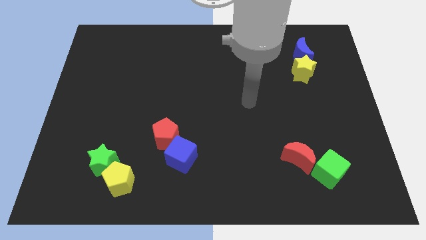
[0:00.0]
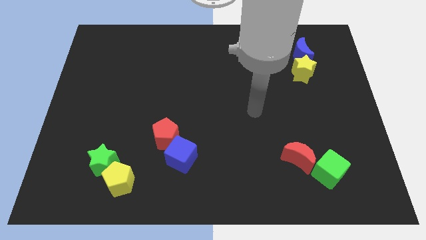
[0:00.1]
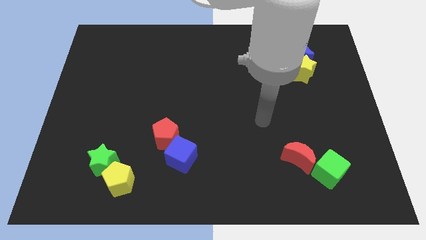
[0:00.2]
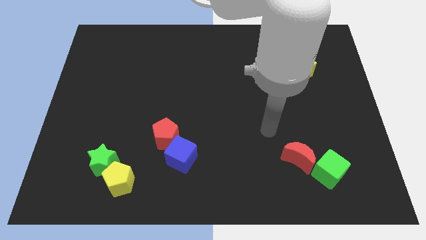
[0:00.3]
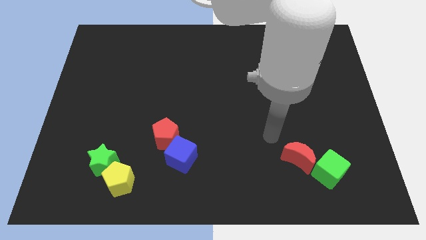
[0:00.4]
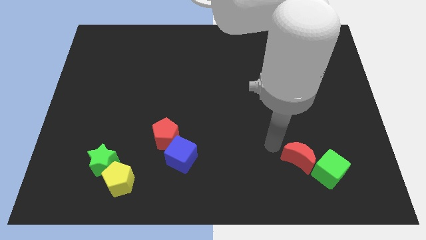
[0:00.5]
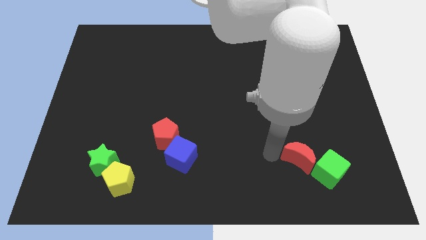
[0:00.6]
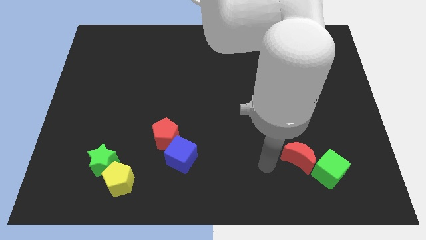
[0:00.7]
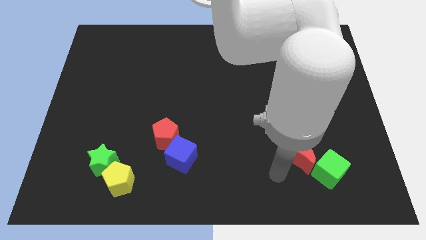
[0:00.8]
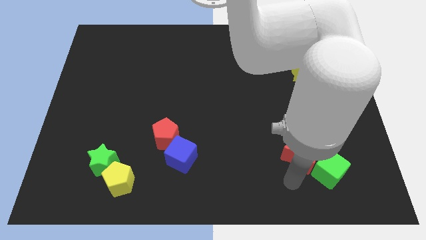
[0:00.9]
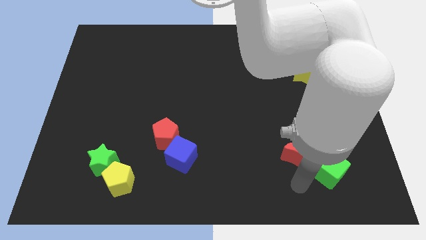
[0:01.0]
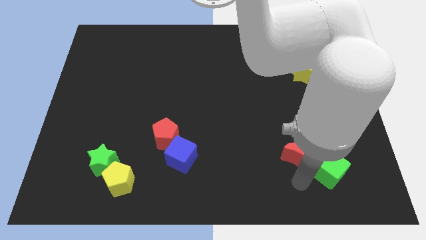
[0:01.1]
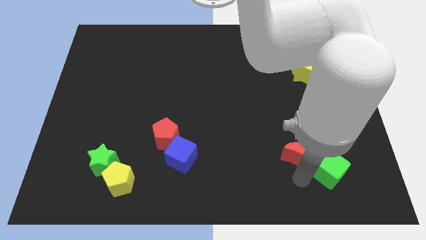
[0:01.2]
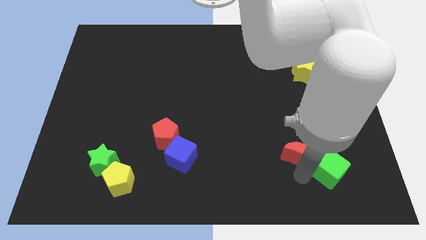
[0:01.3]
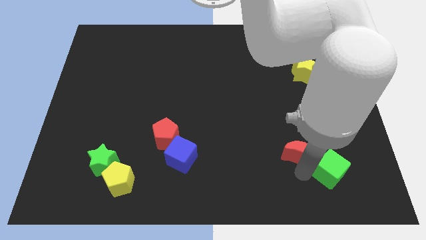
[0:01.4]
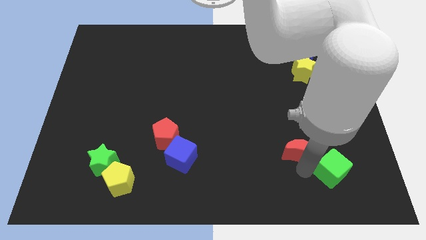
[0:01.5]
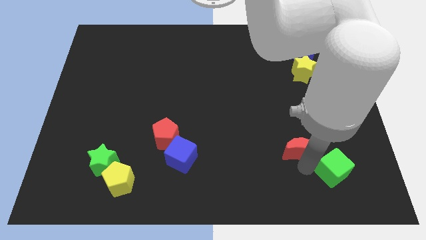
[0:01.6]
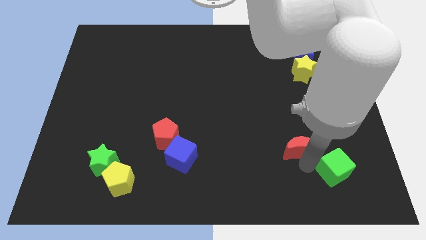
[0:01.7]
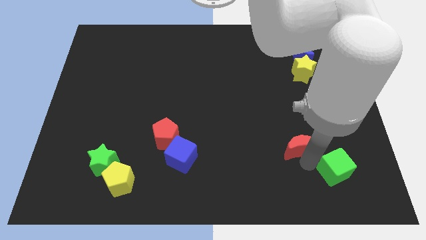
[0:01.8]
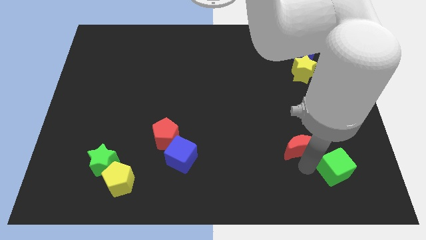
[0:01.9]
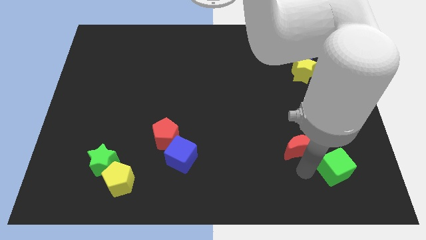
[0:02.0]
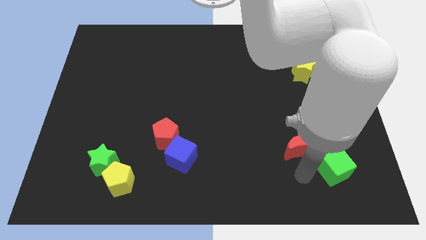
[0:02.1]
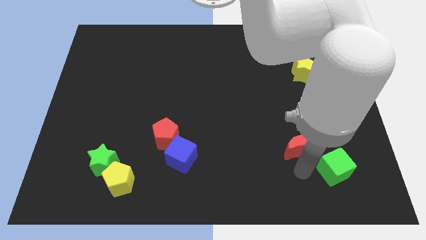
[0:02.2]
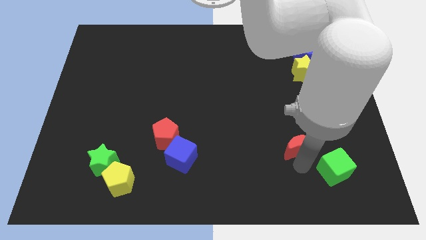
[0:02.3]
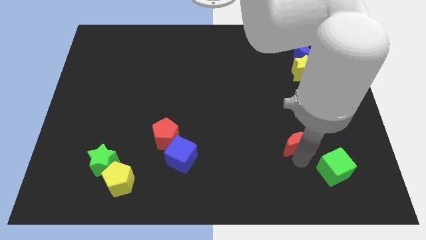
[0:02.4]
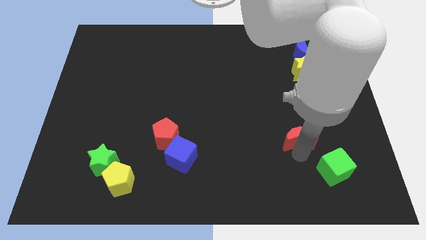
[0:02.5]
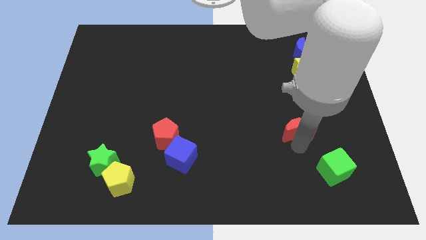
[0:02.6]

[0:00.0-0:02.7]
slightly push the red moon up

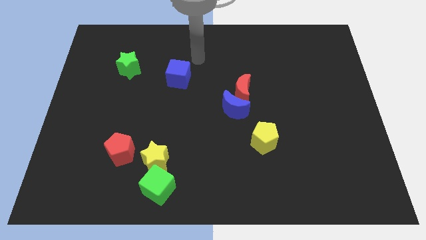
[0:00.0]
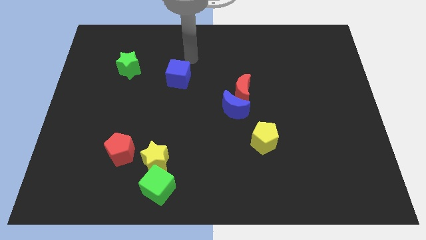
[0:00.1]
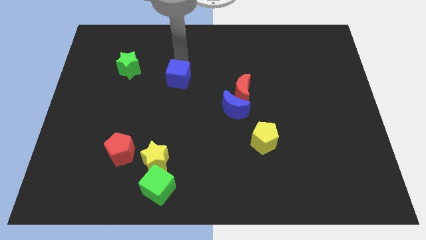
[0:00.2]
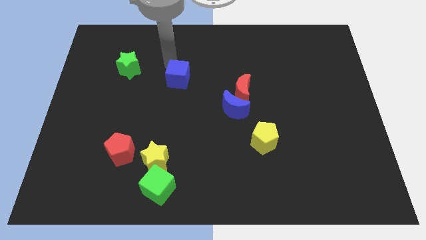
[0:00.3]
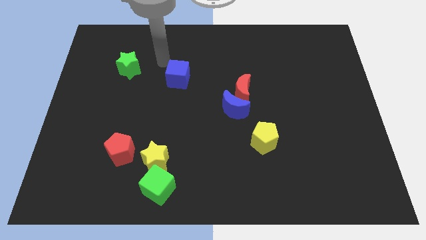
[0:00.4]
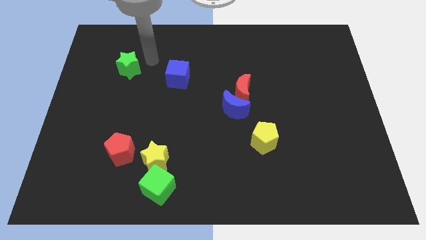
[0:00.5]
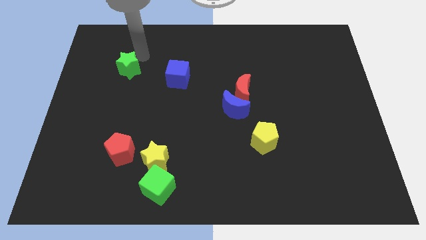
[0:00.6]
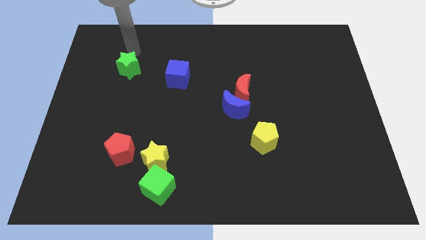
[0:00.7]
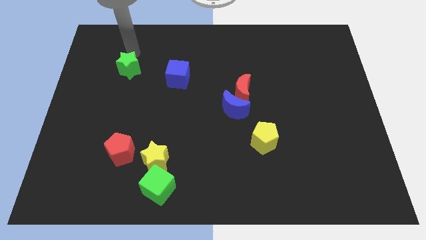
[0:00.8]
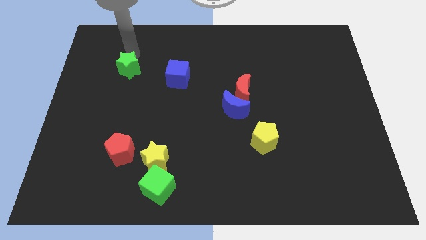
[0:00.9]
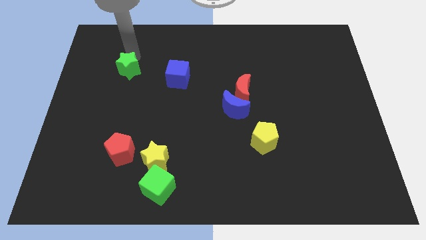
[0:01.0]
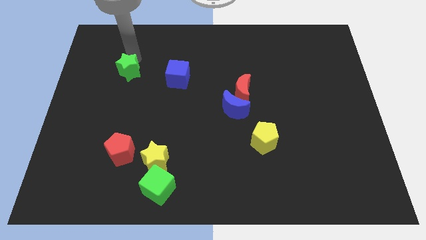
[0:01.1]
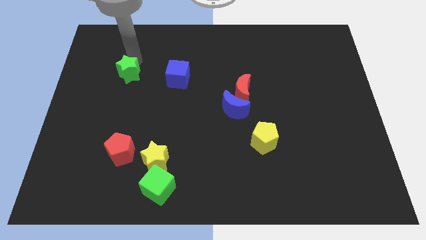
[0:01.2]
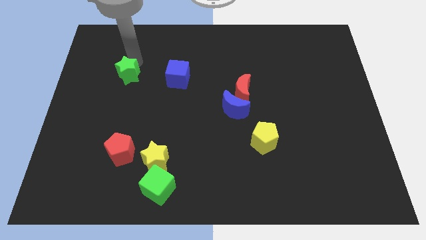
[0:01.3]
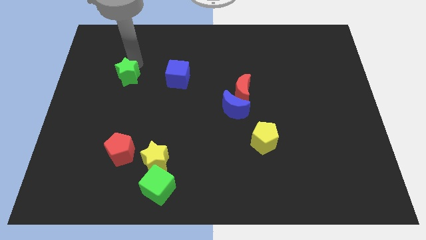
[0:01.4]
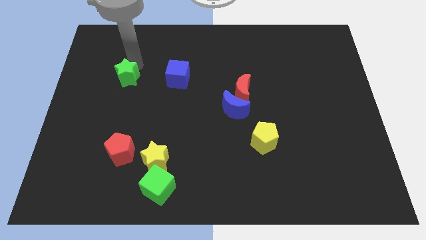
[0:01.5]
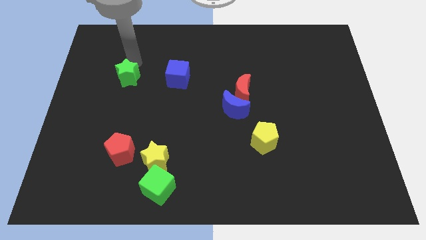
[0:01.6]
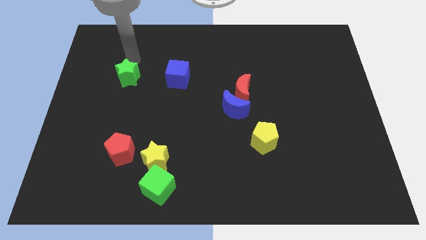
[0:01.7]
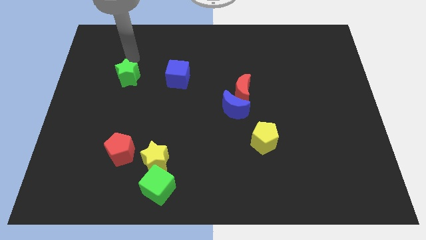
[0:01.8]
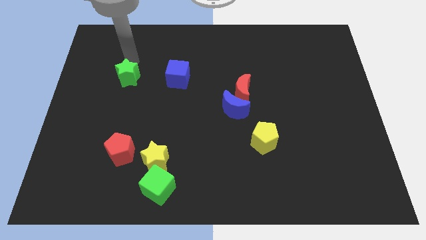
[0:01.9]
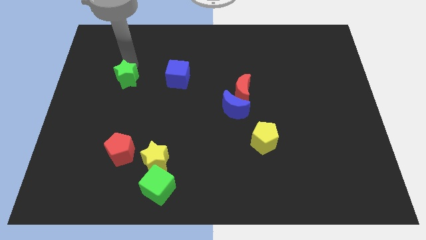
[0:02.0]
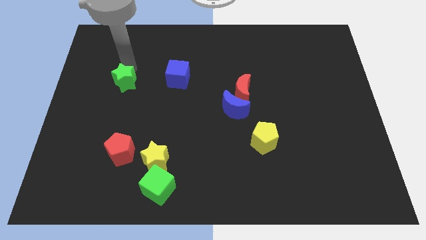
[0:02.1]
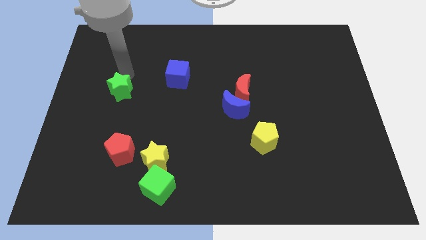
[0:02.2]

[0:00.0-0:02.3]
slightly slide the green star down

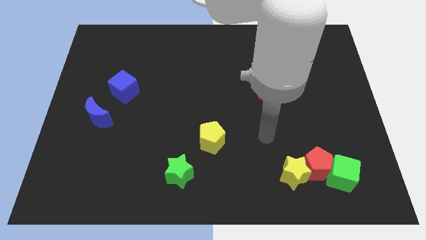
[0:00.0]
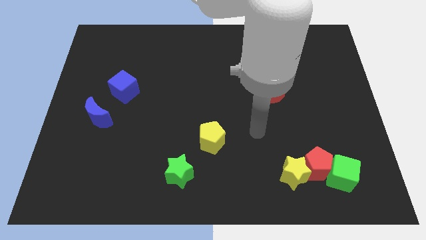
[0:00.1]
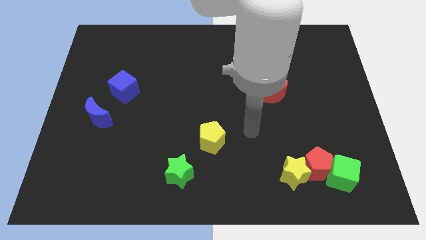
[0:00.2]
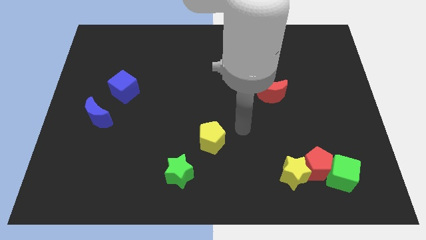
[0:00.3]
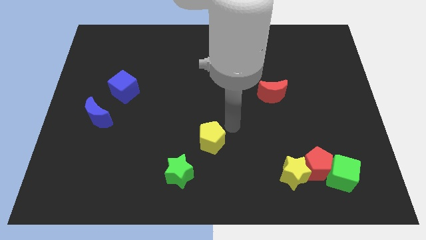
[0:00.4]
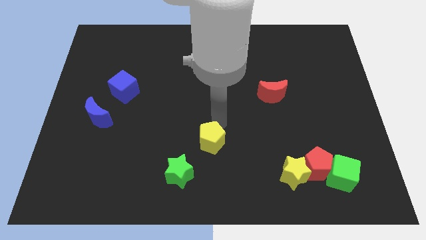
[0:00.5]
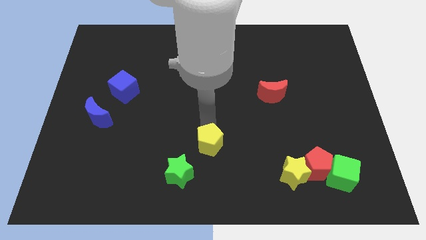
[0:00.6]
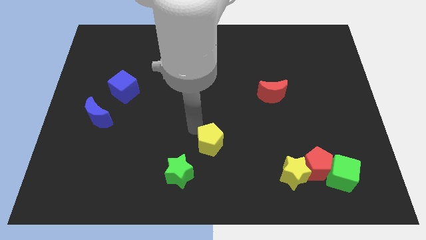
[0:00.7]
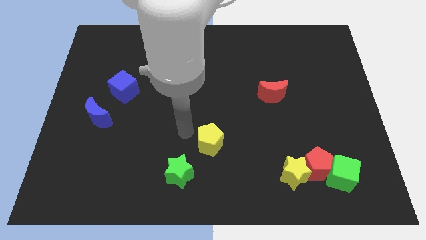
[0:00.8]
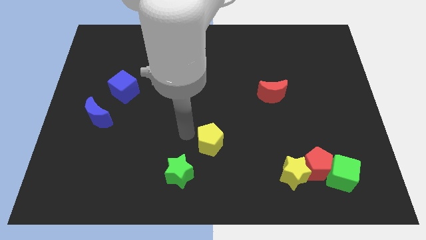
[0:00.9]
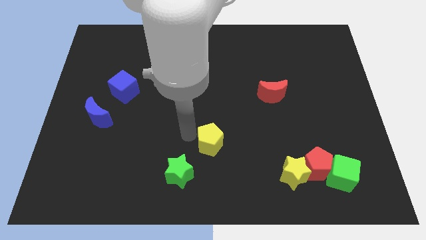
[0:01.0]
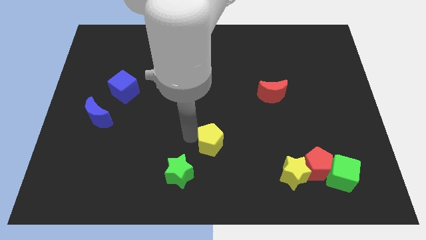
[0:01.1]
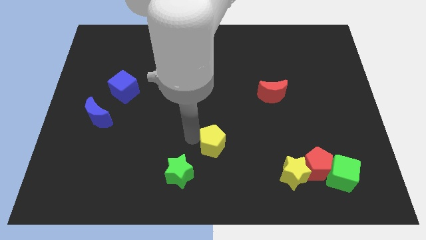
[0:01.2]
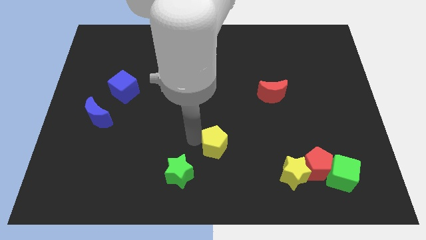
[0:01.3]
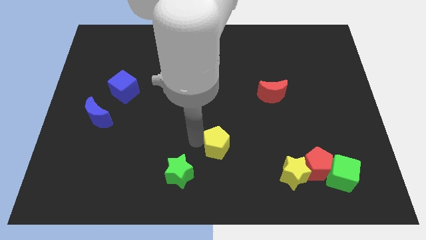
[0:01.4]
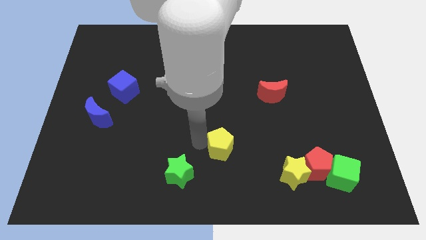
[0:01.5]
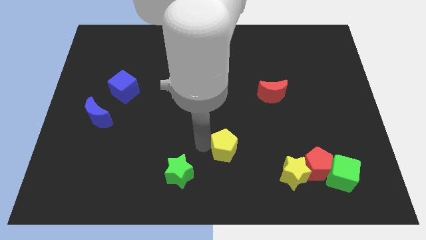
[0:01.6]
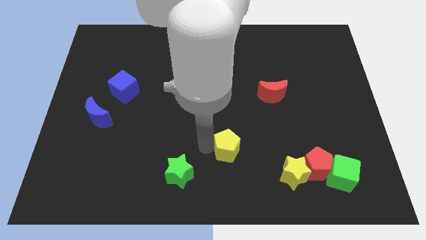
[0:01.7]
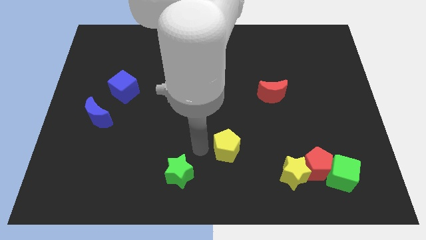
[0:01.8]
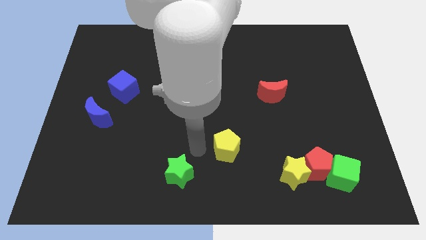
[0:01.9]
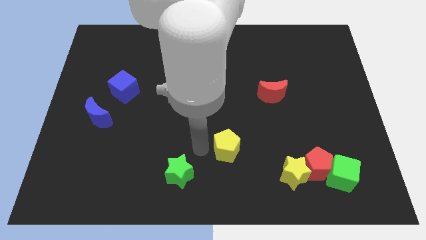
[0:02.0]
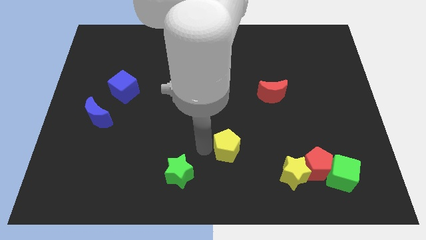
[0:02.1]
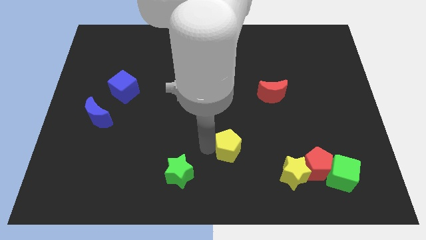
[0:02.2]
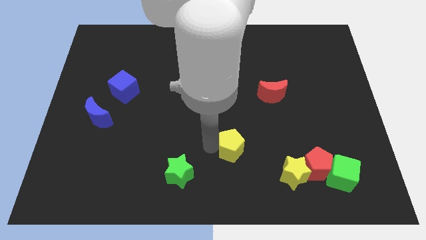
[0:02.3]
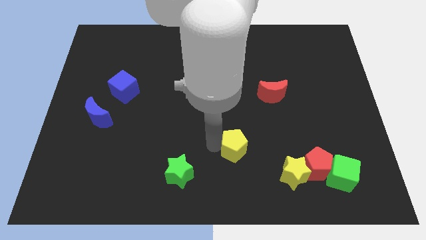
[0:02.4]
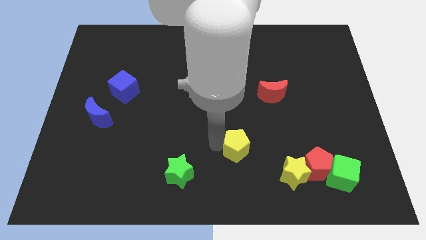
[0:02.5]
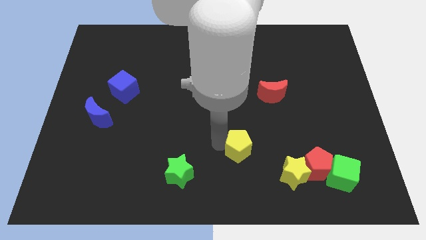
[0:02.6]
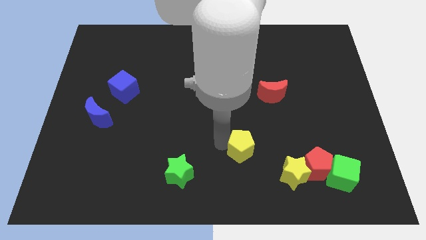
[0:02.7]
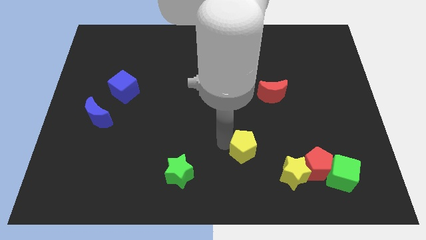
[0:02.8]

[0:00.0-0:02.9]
slide the yellow pentagon a little bit right
